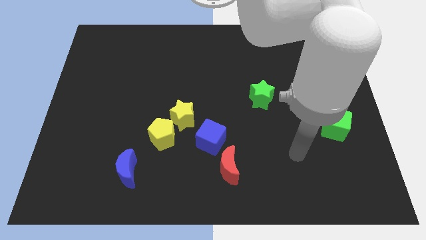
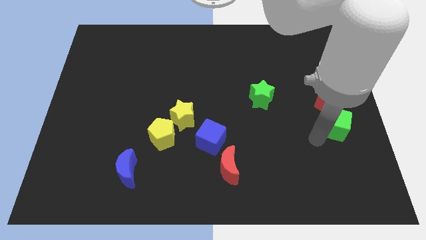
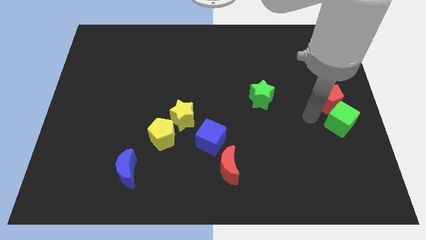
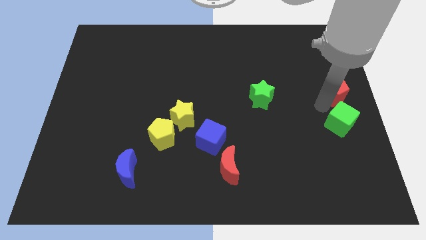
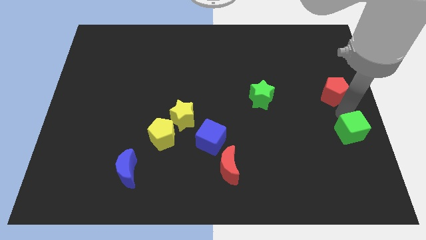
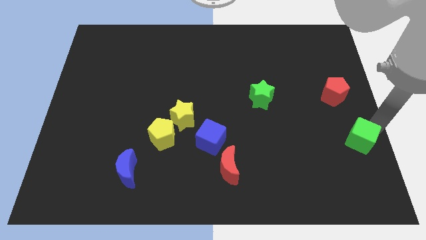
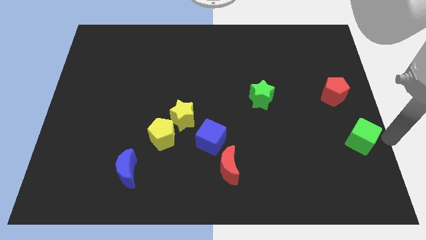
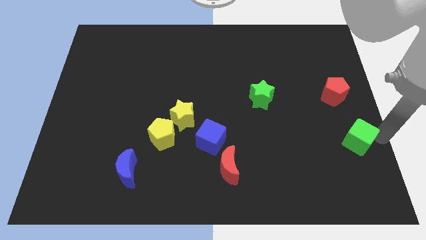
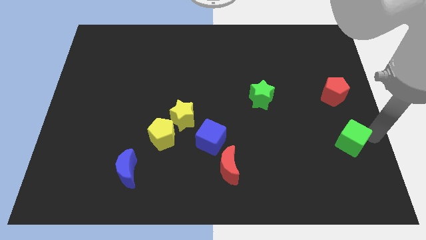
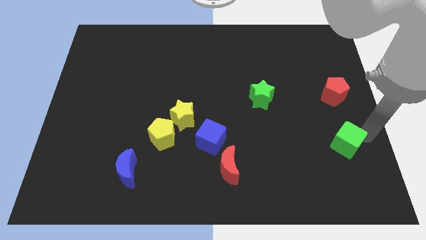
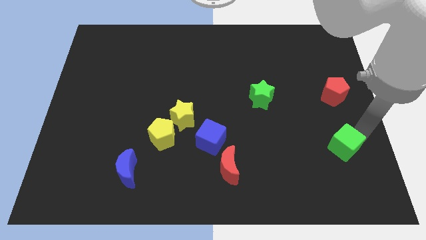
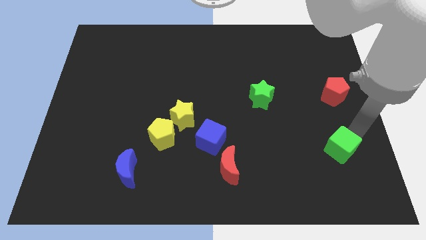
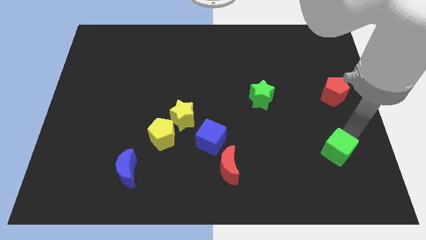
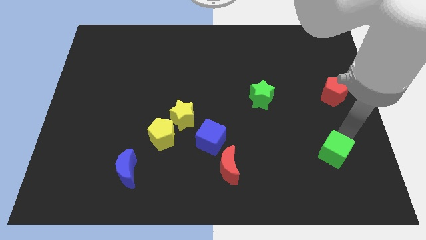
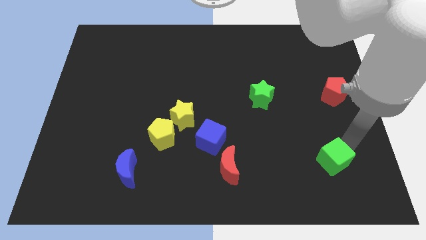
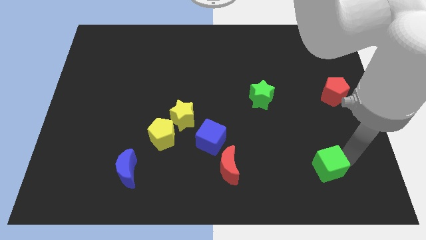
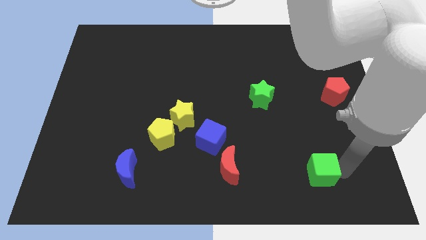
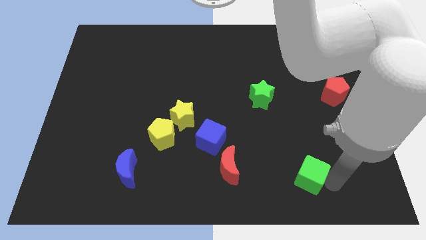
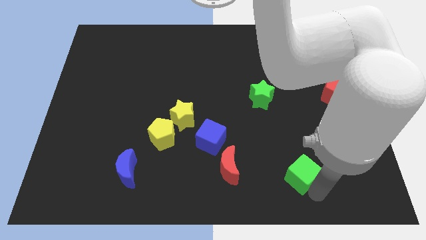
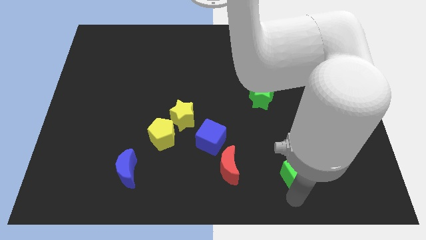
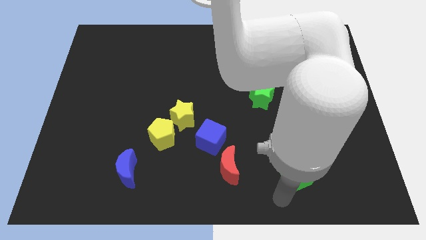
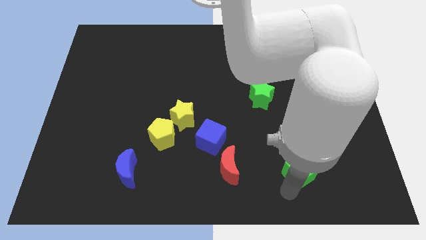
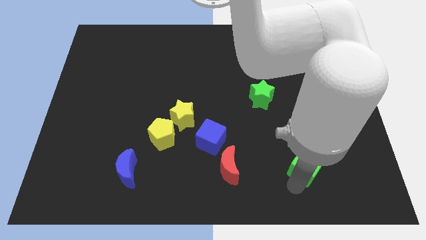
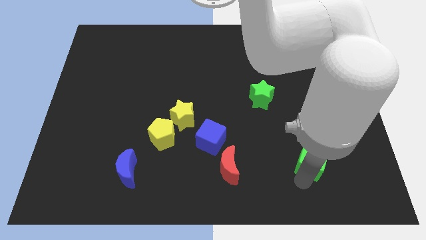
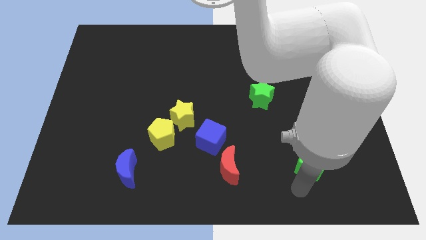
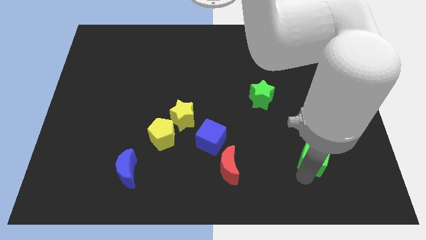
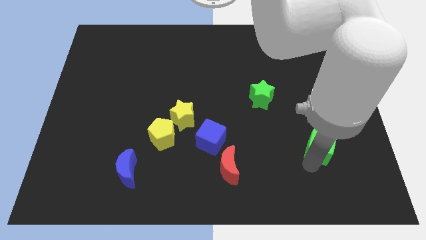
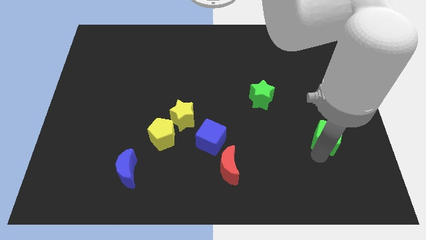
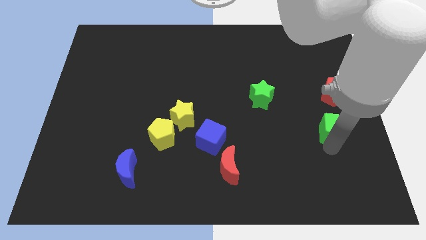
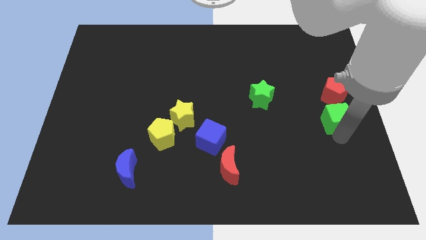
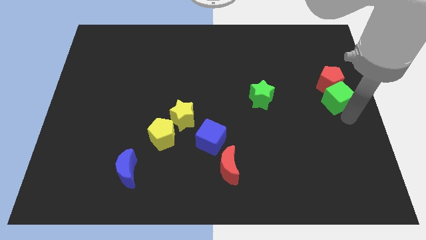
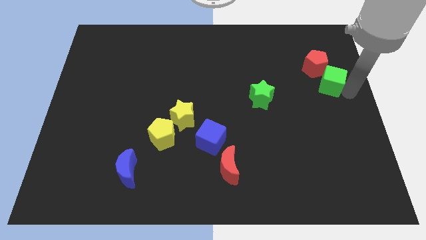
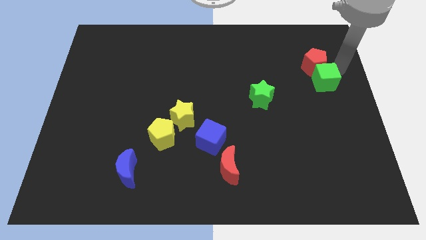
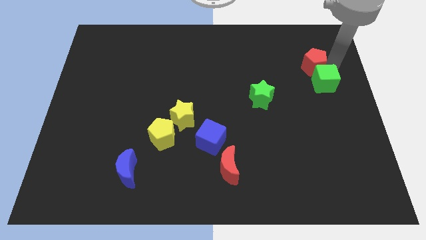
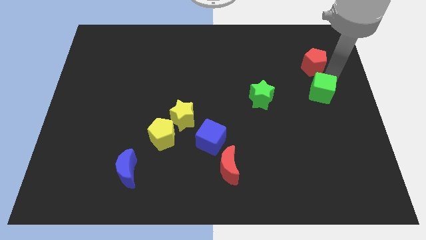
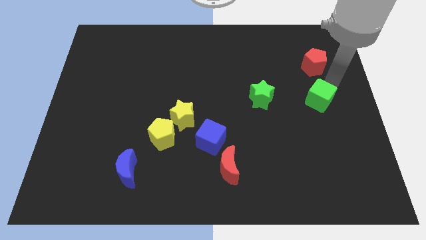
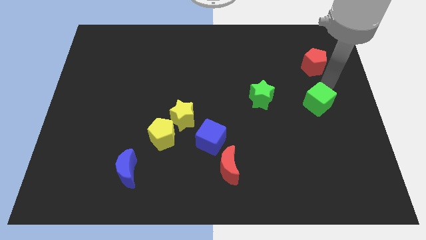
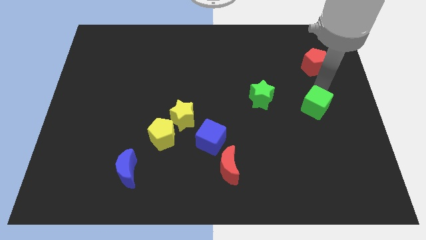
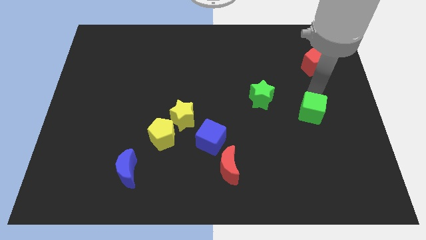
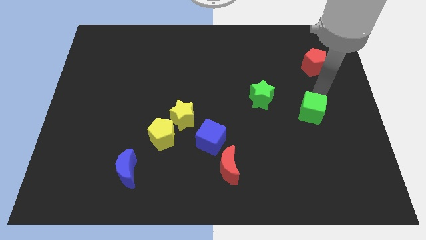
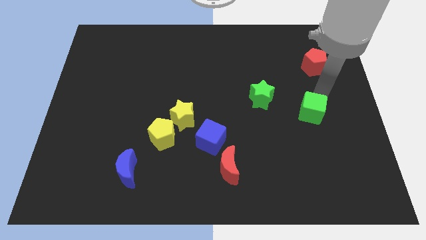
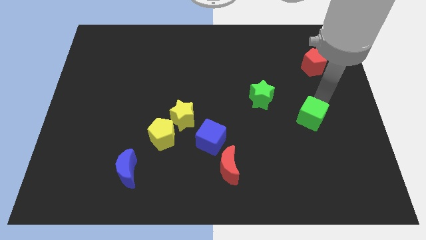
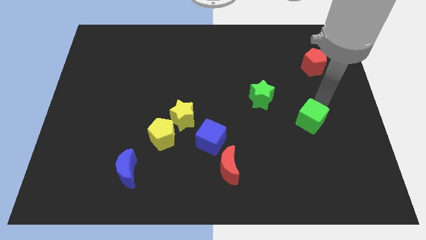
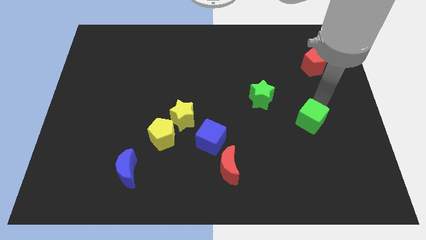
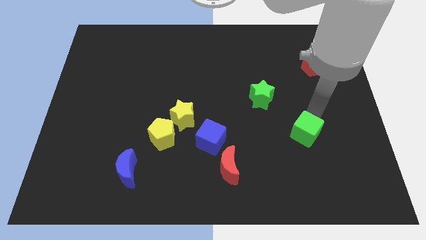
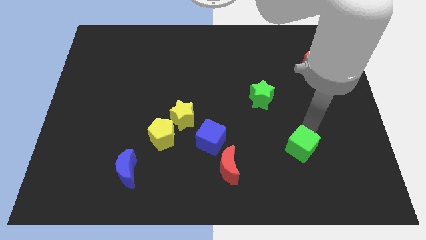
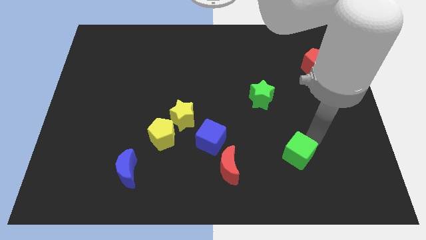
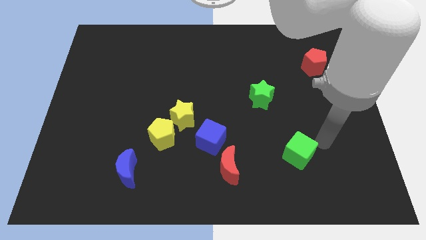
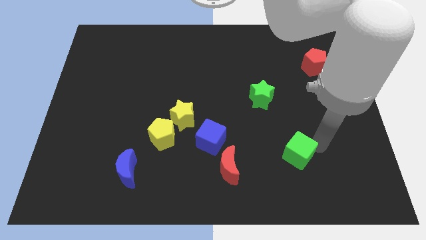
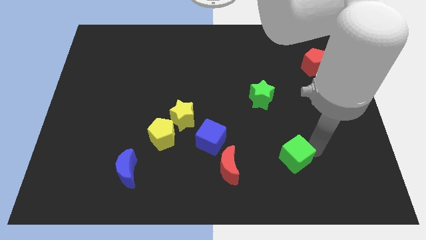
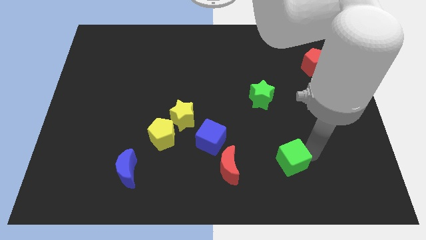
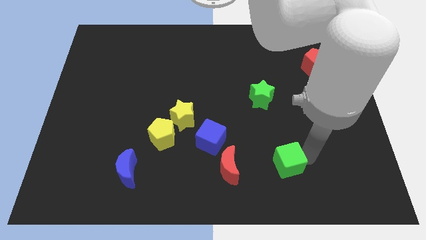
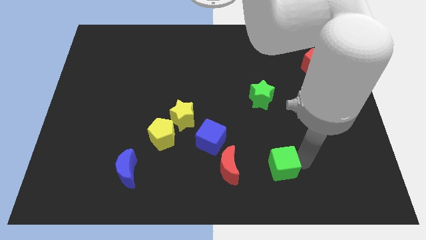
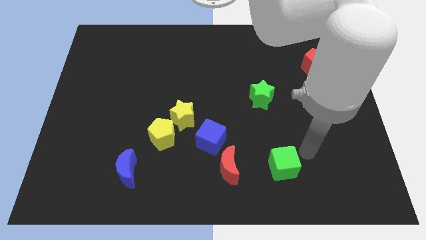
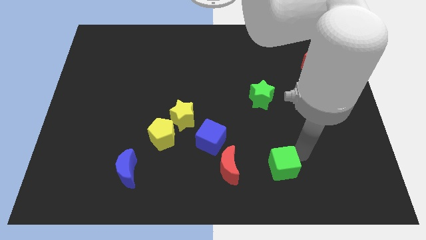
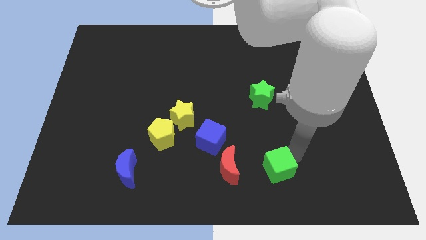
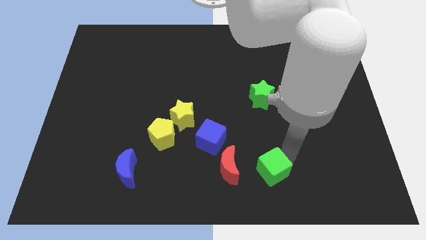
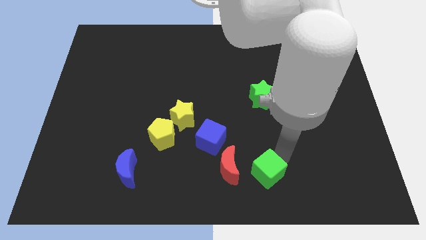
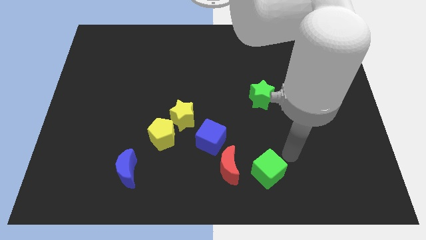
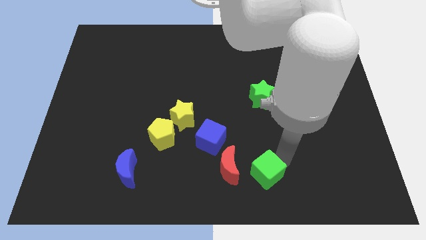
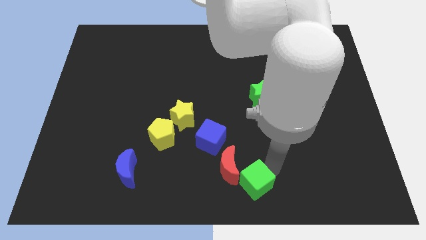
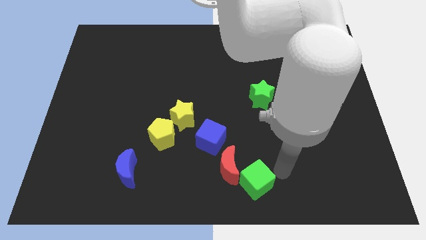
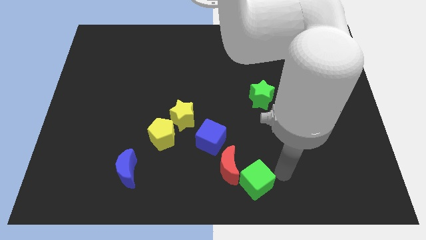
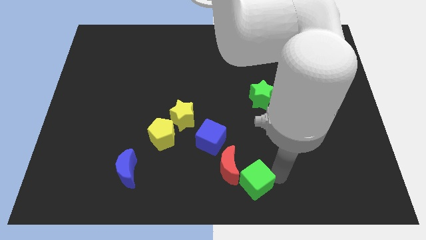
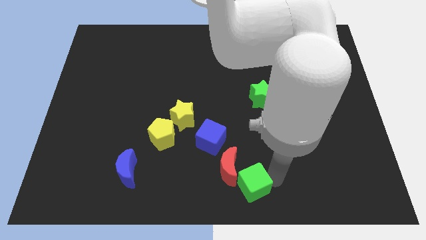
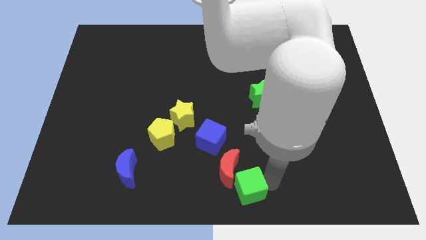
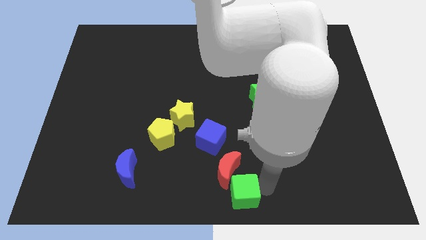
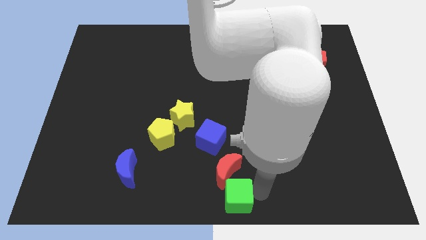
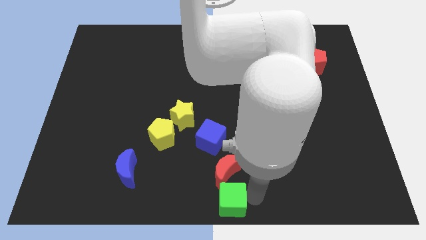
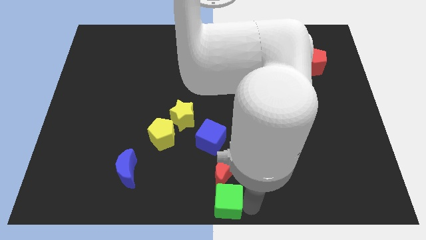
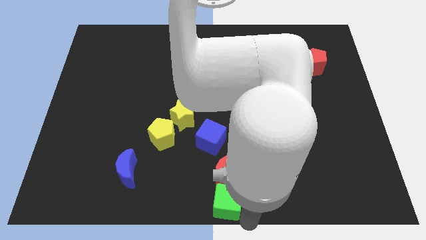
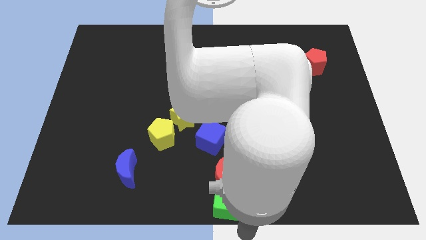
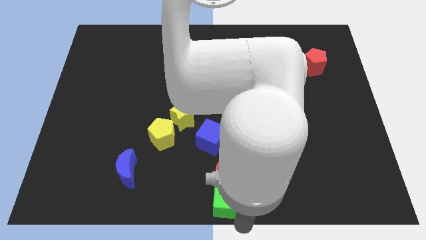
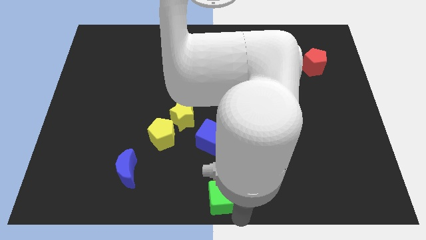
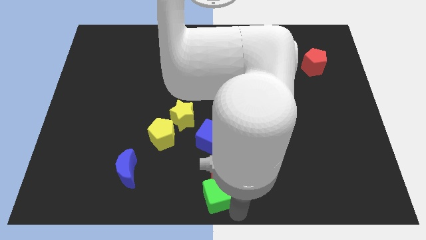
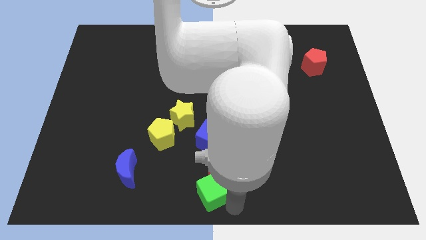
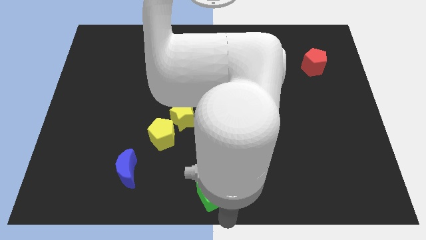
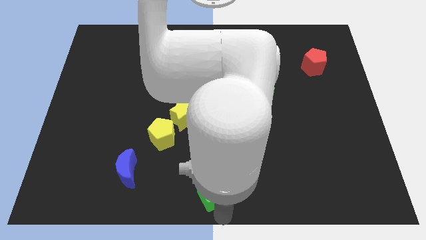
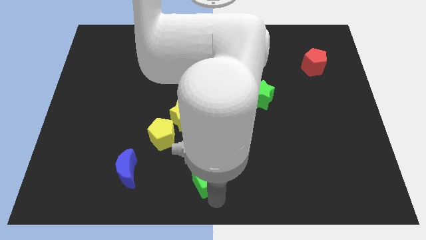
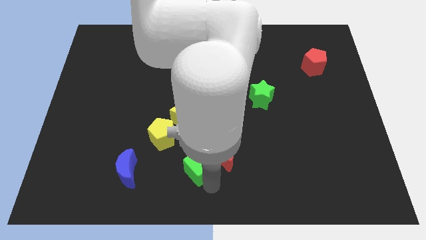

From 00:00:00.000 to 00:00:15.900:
slide the green cube to the bottom left side of the blue cube

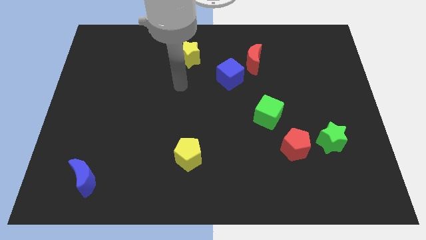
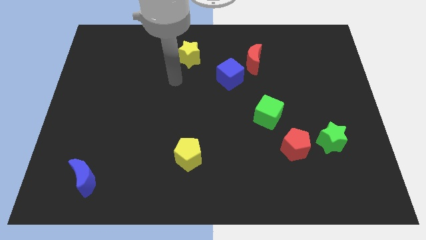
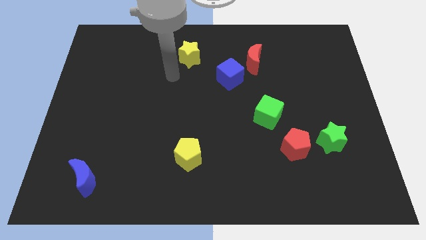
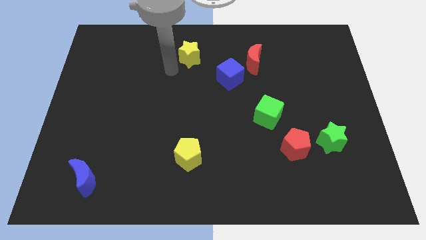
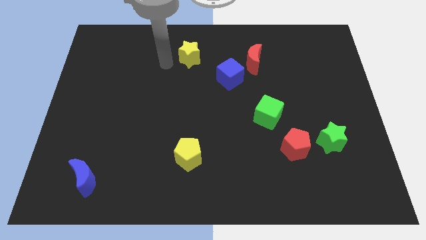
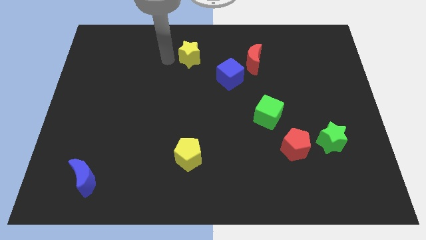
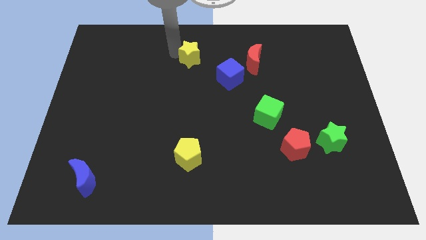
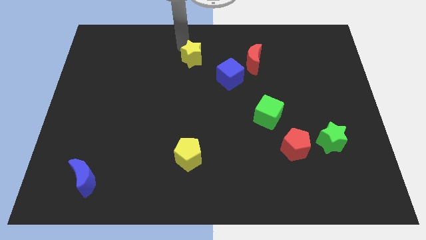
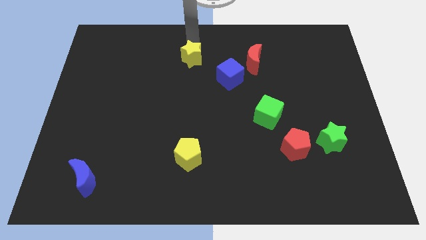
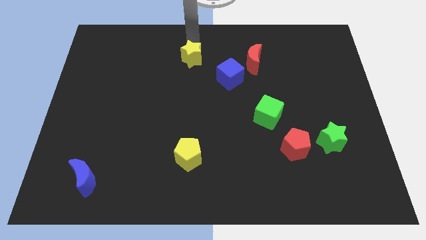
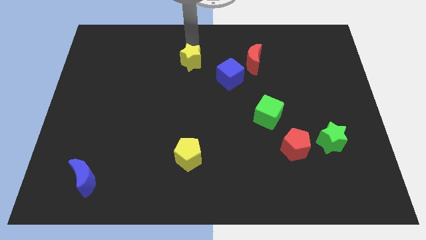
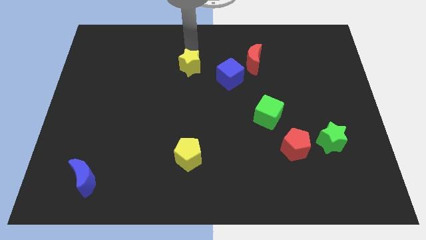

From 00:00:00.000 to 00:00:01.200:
slide the yellow star to the left side of the blue cube
